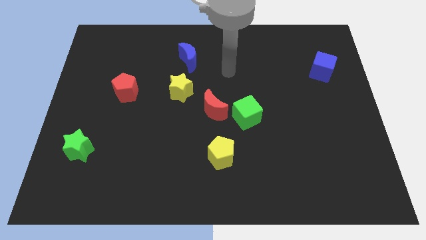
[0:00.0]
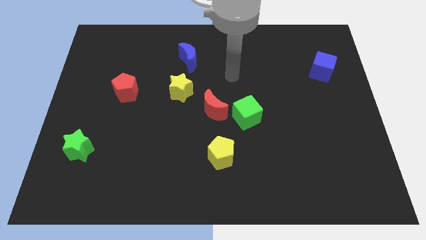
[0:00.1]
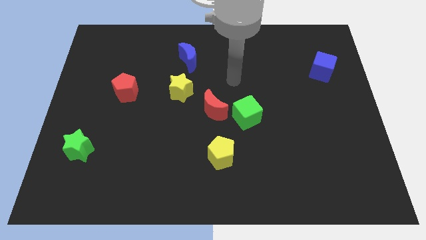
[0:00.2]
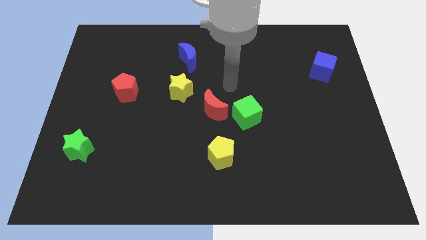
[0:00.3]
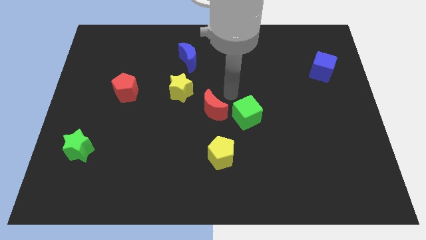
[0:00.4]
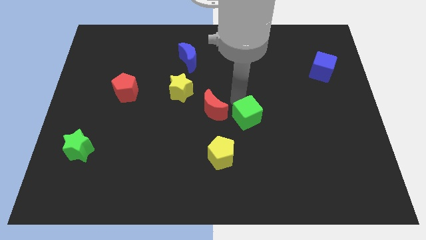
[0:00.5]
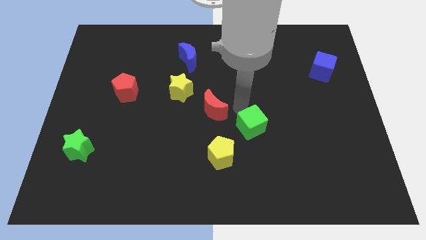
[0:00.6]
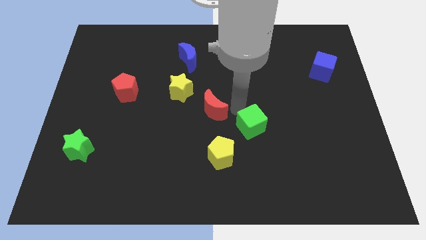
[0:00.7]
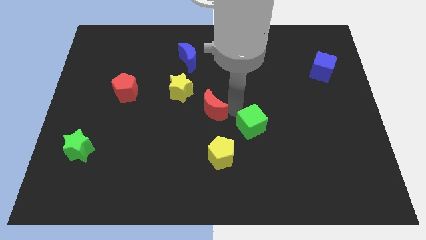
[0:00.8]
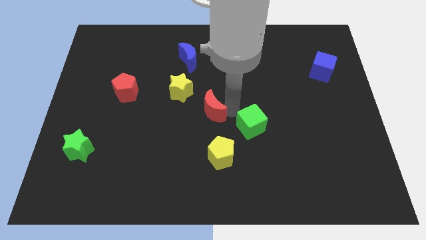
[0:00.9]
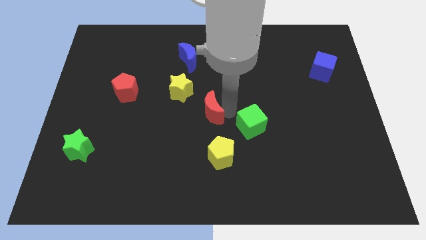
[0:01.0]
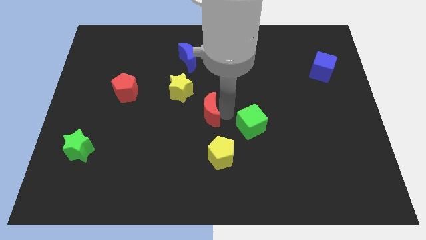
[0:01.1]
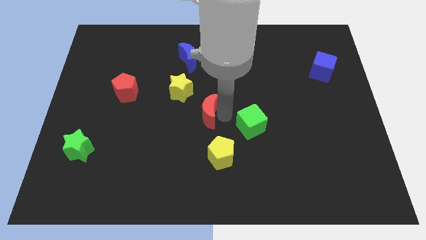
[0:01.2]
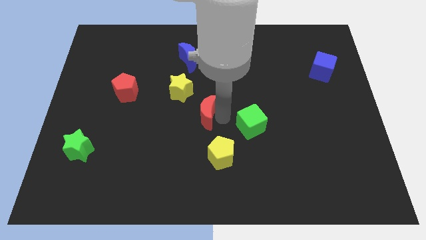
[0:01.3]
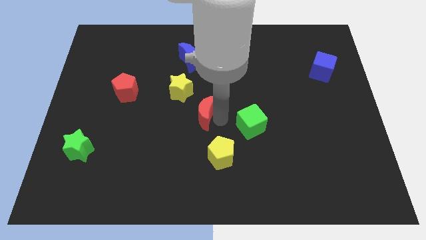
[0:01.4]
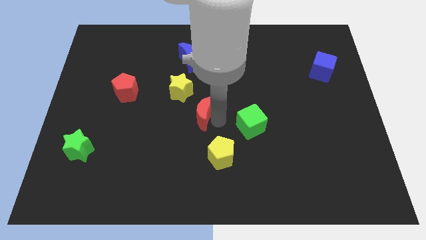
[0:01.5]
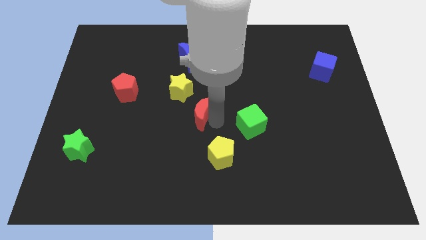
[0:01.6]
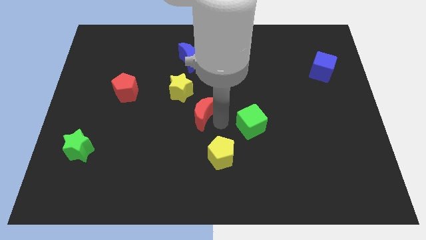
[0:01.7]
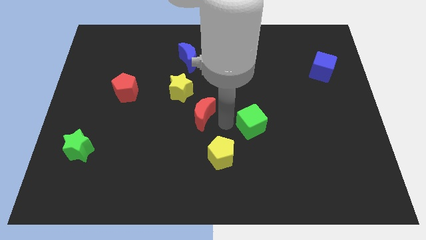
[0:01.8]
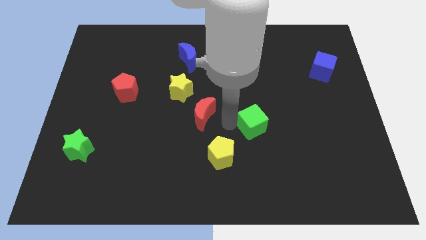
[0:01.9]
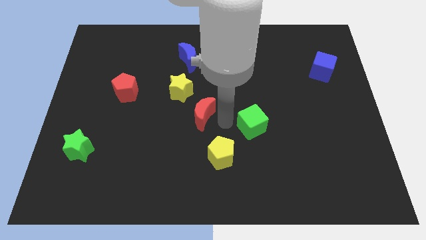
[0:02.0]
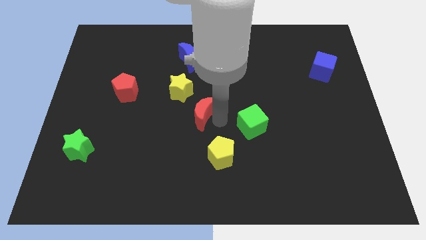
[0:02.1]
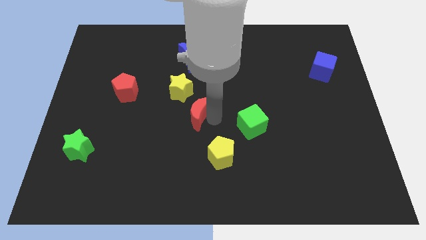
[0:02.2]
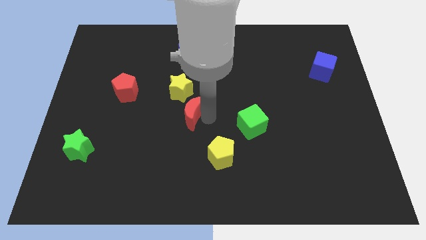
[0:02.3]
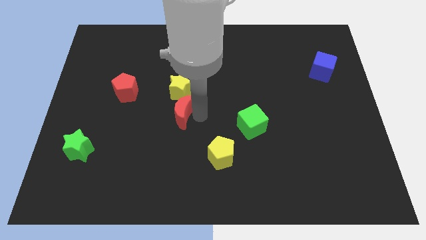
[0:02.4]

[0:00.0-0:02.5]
slightly push the red moon left

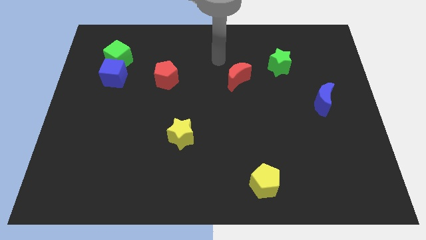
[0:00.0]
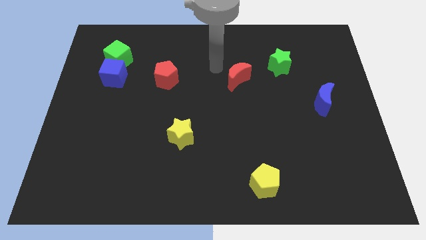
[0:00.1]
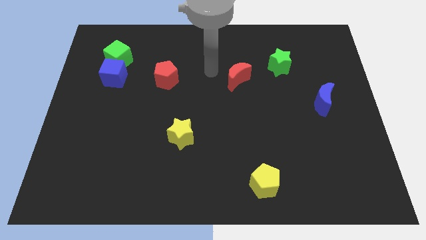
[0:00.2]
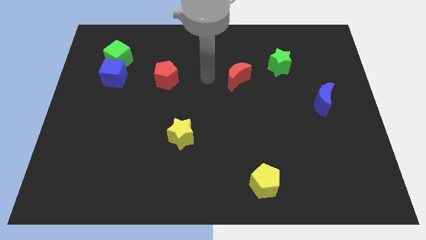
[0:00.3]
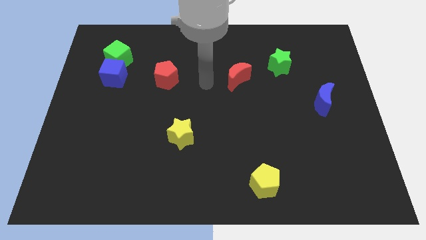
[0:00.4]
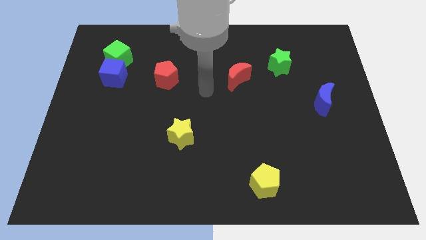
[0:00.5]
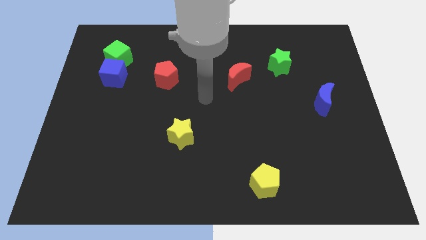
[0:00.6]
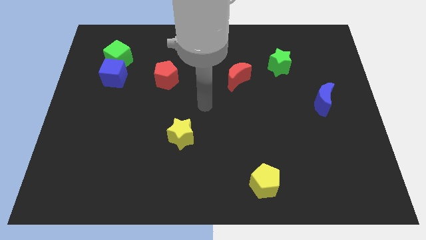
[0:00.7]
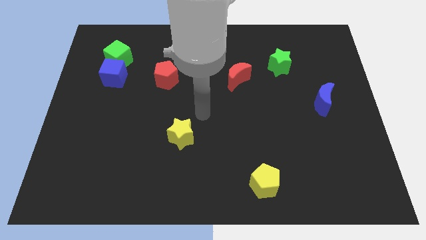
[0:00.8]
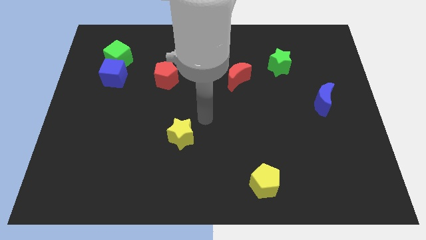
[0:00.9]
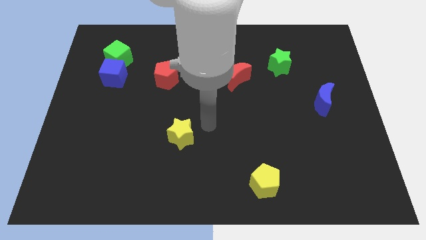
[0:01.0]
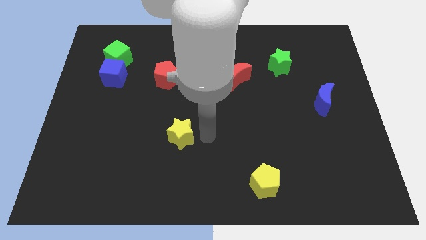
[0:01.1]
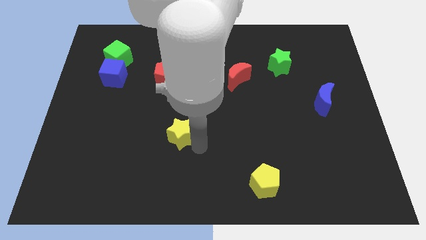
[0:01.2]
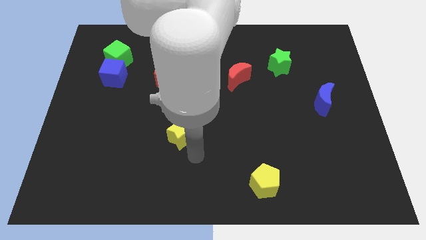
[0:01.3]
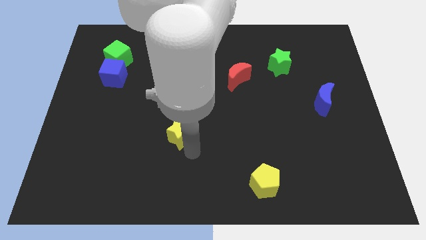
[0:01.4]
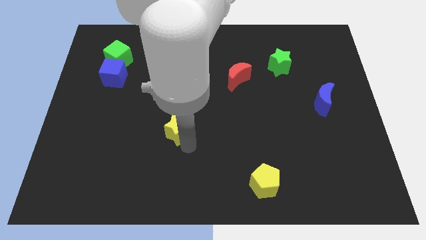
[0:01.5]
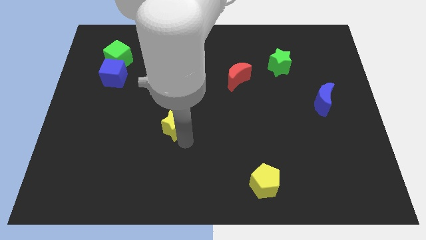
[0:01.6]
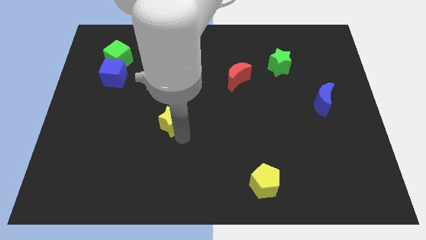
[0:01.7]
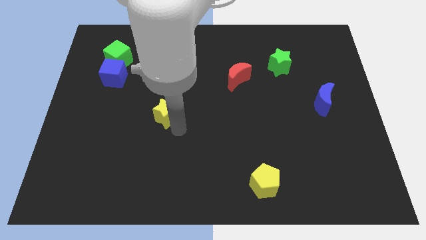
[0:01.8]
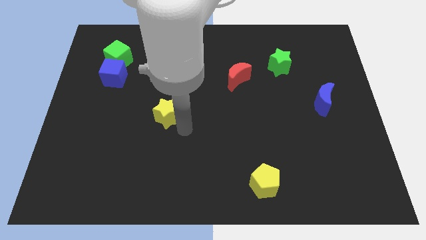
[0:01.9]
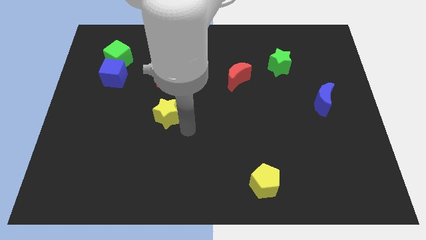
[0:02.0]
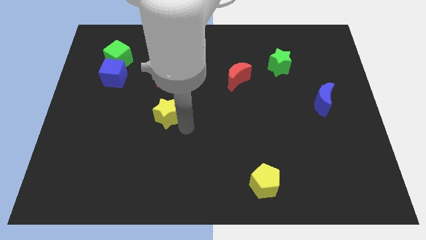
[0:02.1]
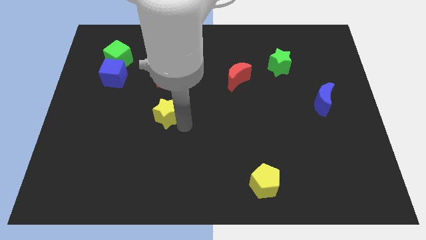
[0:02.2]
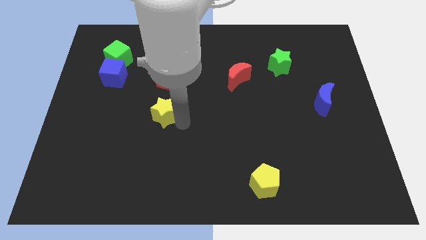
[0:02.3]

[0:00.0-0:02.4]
slightly slide the yellow star diagonally up and to the left

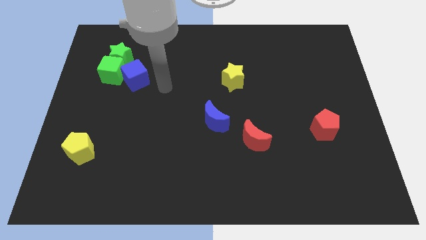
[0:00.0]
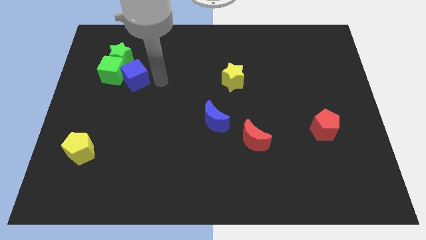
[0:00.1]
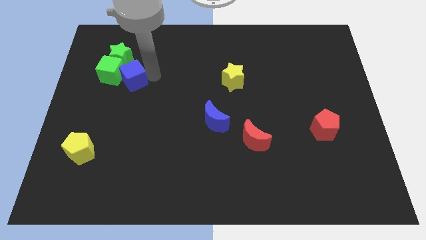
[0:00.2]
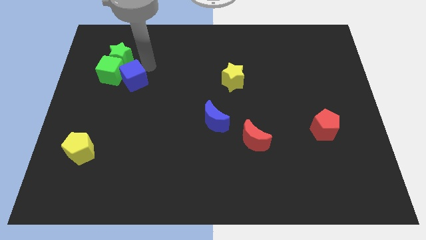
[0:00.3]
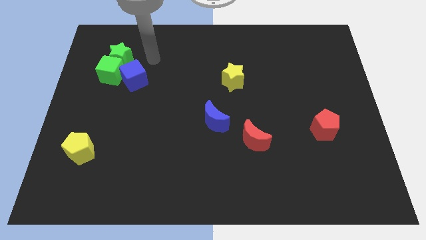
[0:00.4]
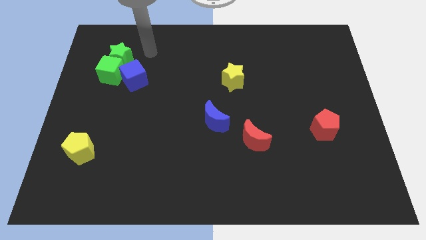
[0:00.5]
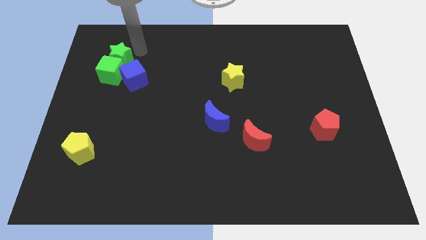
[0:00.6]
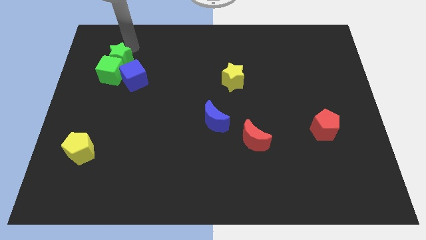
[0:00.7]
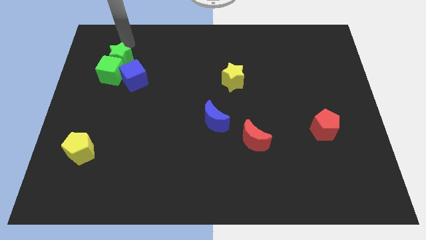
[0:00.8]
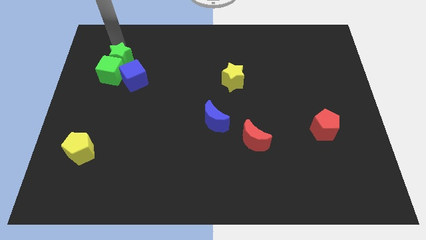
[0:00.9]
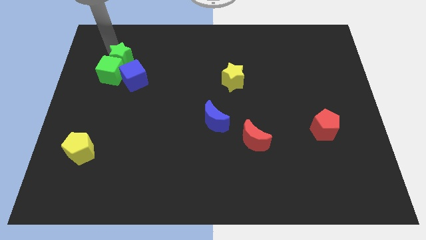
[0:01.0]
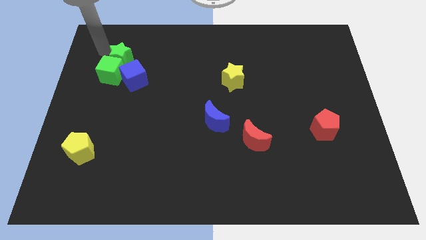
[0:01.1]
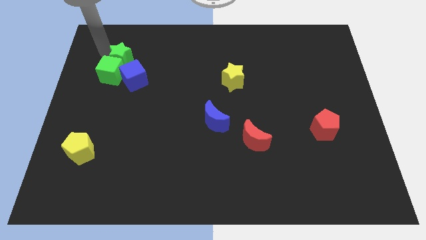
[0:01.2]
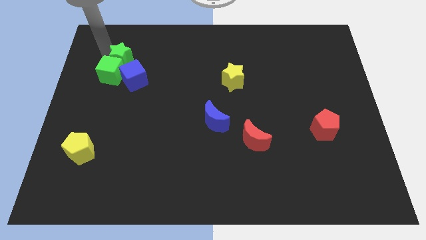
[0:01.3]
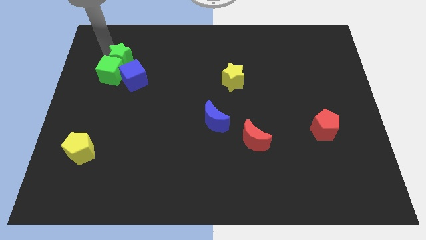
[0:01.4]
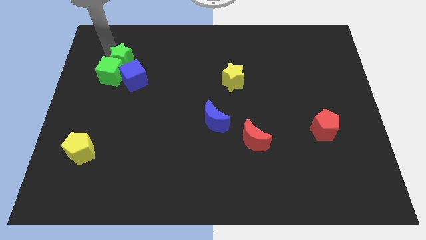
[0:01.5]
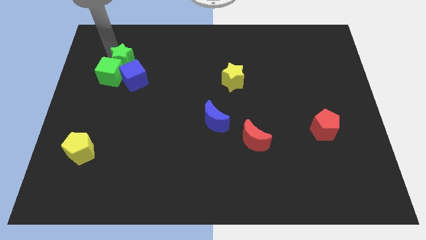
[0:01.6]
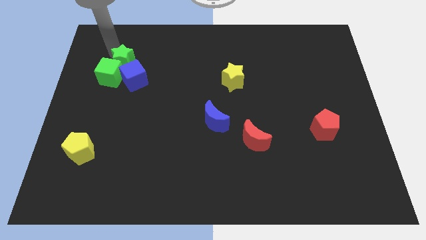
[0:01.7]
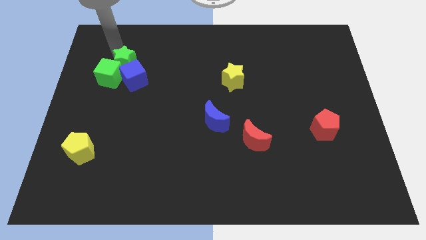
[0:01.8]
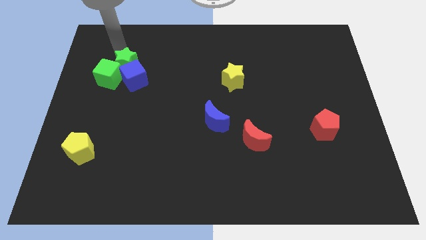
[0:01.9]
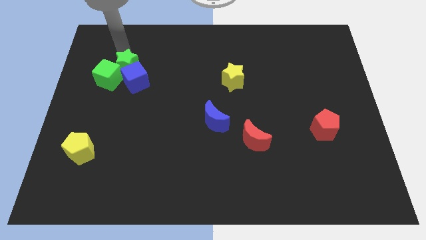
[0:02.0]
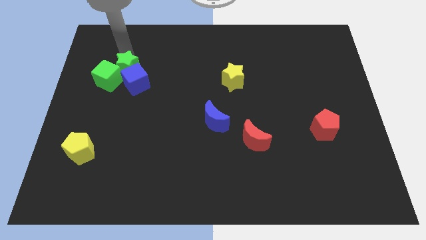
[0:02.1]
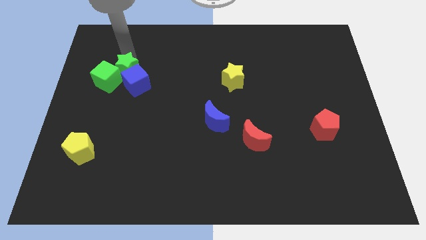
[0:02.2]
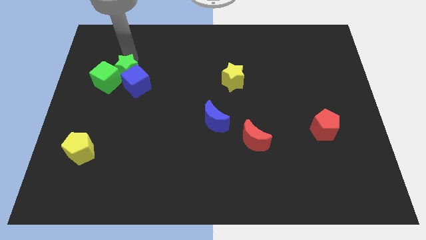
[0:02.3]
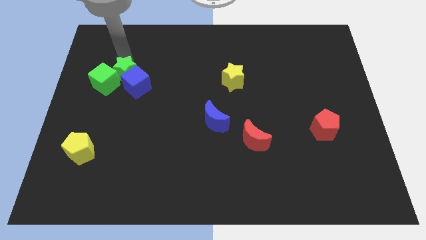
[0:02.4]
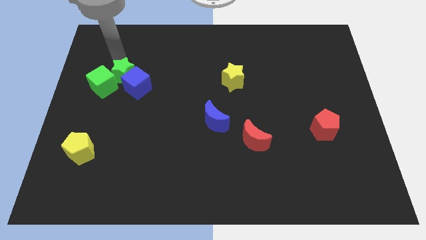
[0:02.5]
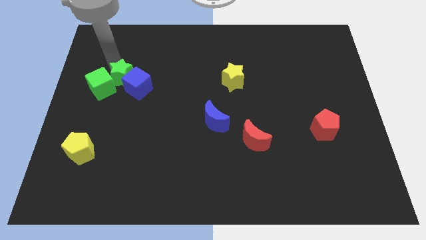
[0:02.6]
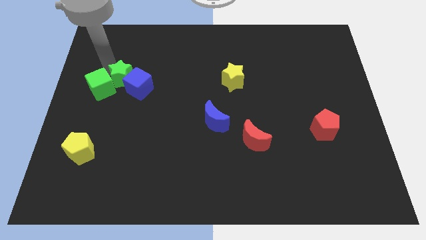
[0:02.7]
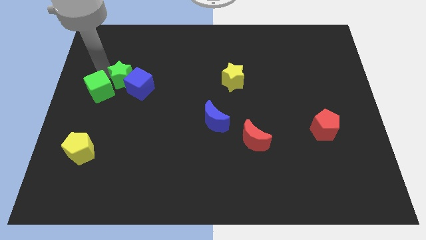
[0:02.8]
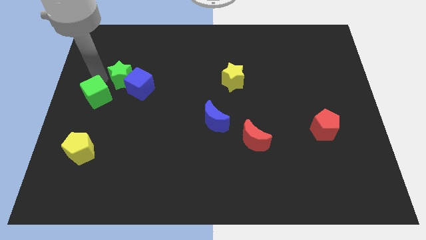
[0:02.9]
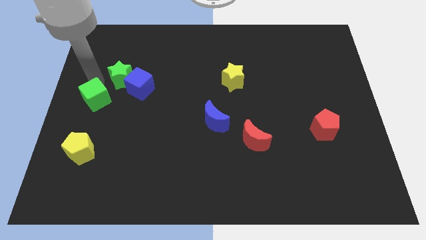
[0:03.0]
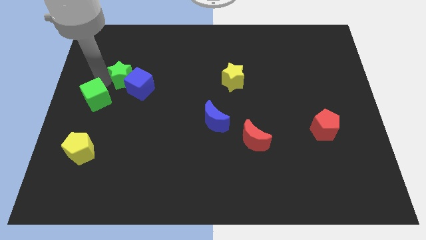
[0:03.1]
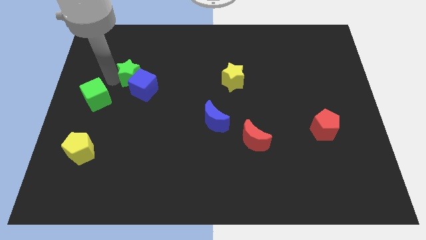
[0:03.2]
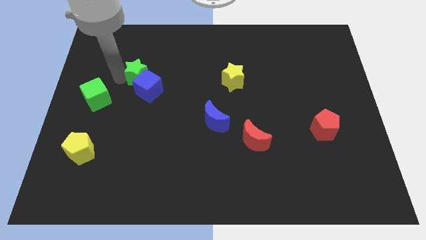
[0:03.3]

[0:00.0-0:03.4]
slide the green star a little downwards and then to the right
